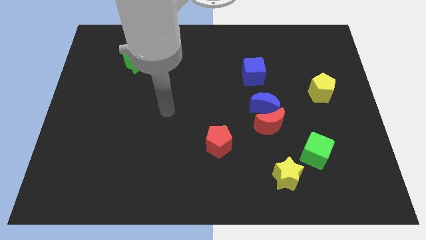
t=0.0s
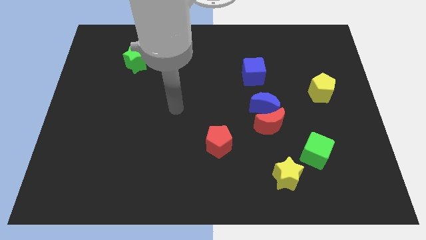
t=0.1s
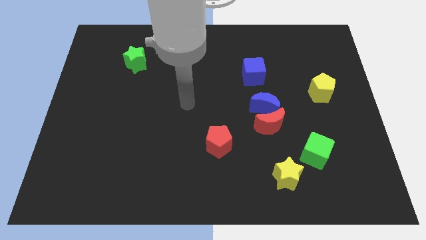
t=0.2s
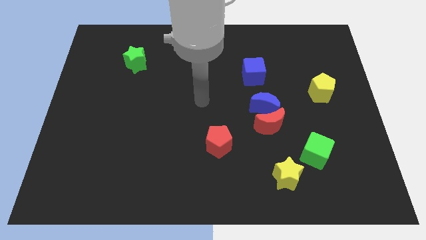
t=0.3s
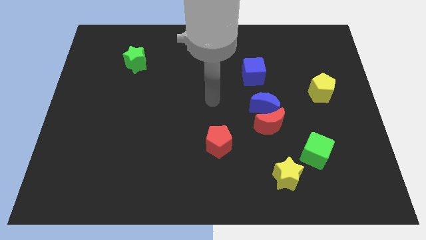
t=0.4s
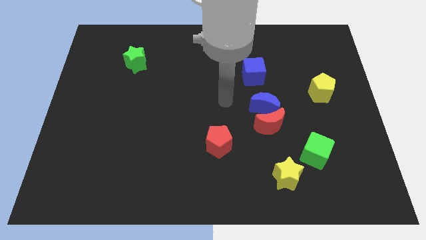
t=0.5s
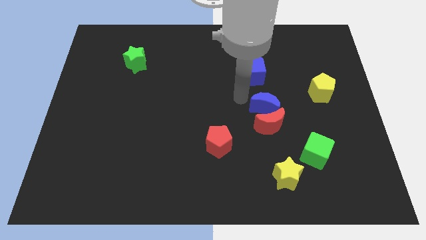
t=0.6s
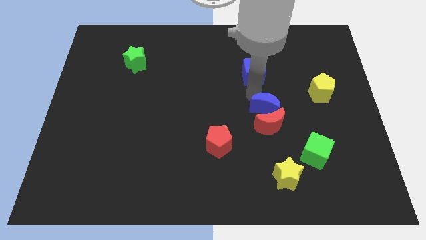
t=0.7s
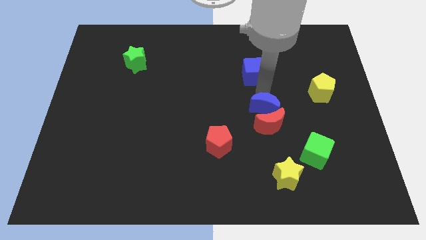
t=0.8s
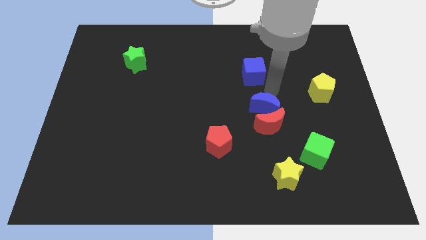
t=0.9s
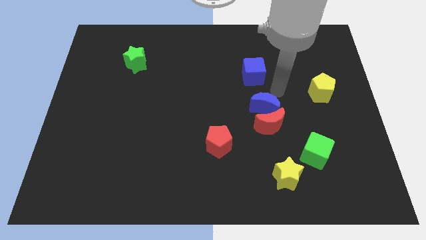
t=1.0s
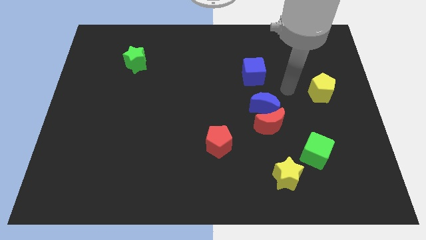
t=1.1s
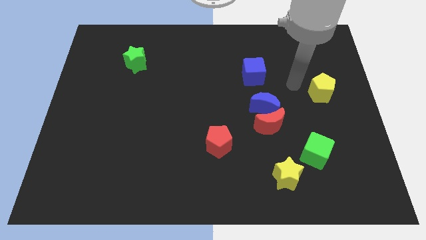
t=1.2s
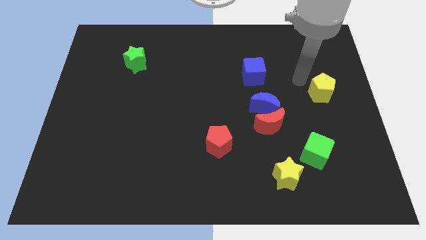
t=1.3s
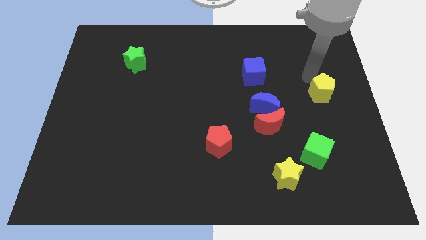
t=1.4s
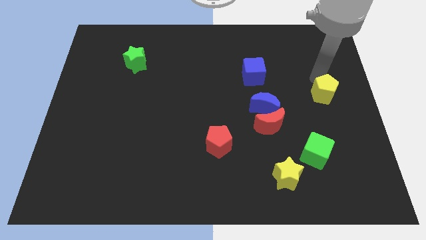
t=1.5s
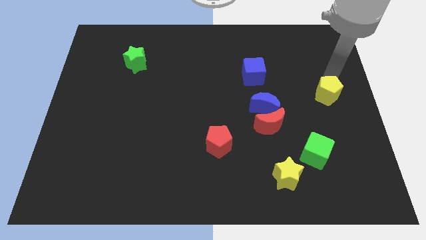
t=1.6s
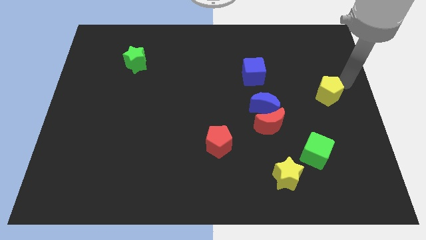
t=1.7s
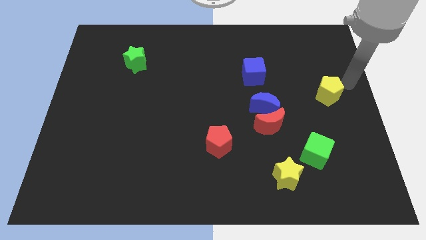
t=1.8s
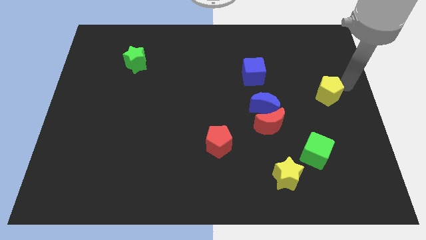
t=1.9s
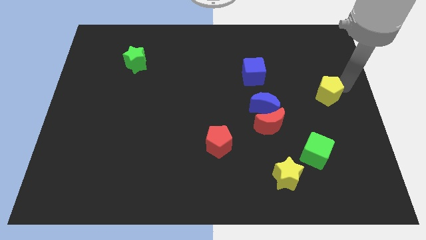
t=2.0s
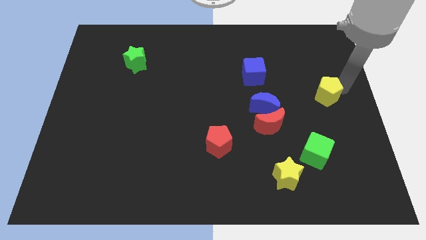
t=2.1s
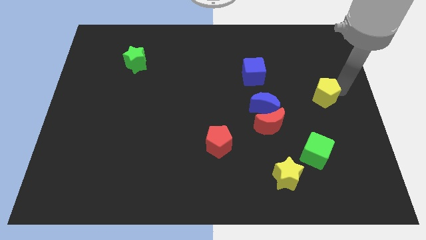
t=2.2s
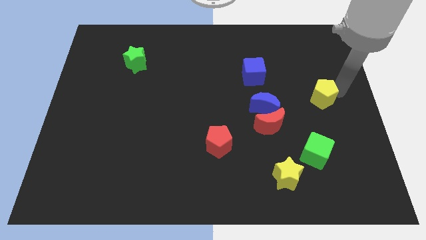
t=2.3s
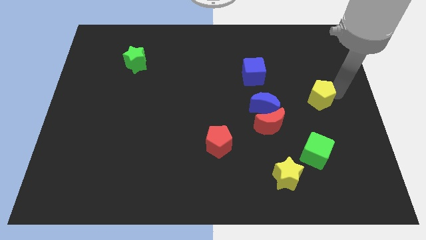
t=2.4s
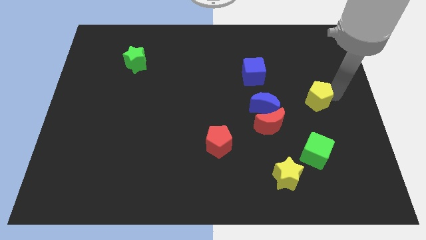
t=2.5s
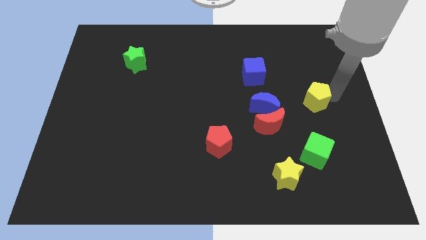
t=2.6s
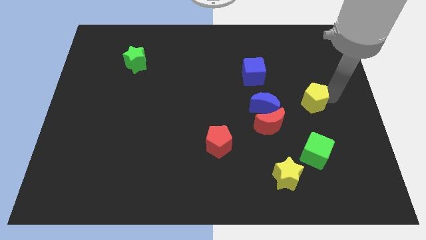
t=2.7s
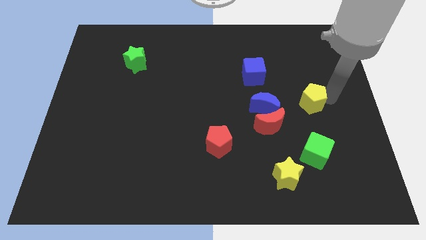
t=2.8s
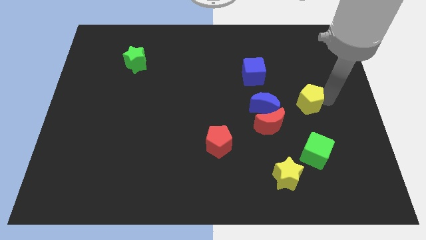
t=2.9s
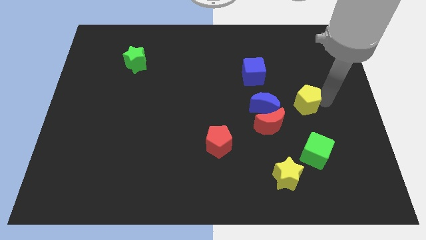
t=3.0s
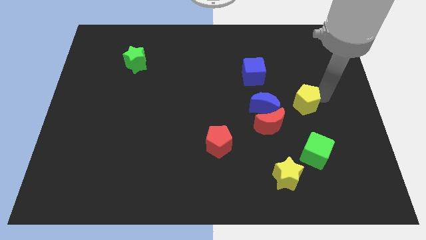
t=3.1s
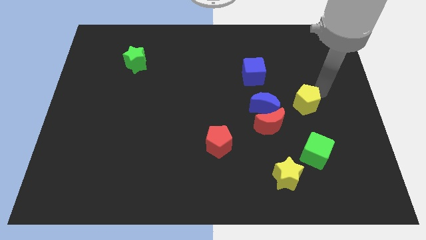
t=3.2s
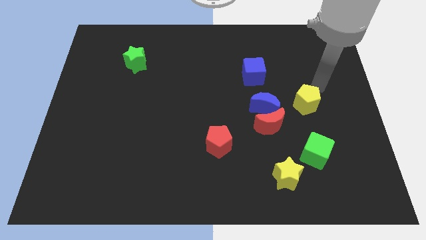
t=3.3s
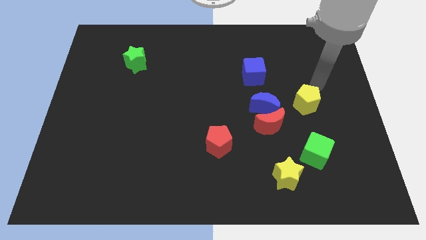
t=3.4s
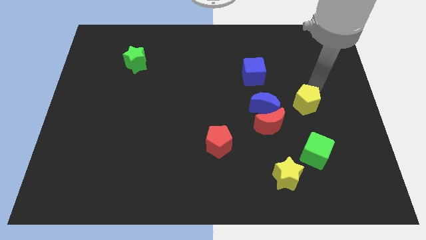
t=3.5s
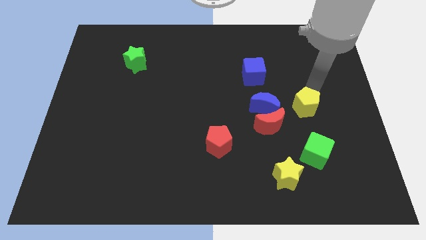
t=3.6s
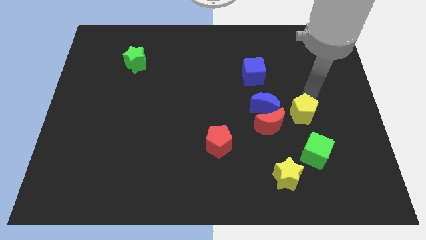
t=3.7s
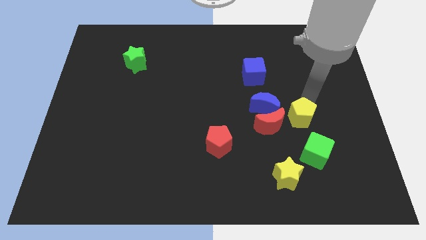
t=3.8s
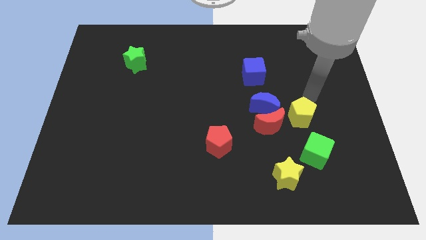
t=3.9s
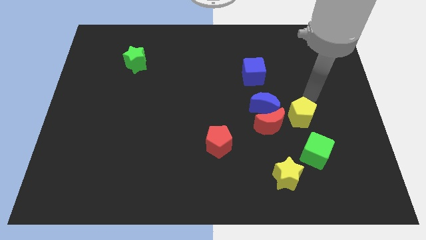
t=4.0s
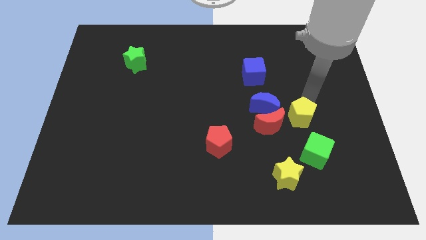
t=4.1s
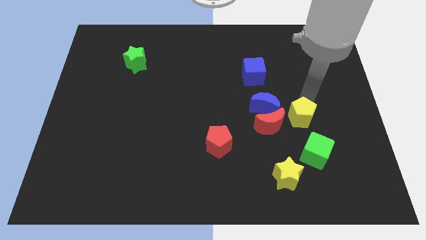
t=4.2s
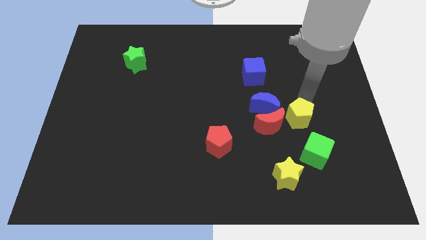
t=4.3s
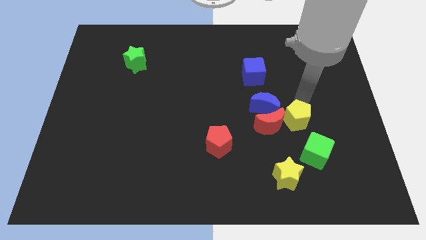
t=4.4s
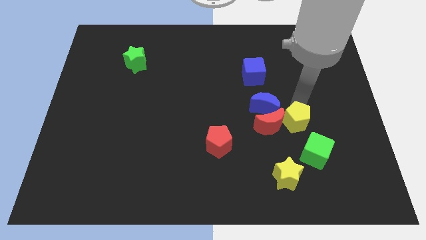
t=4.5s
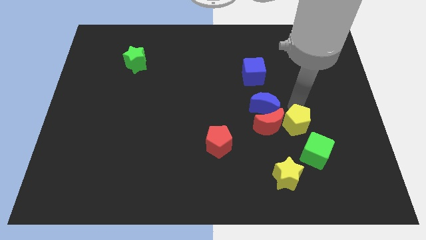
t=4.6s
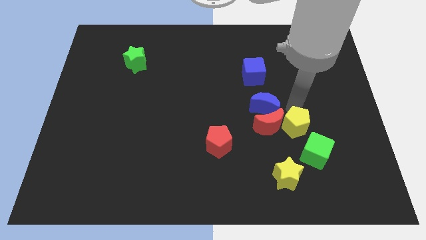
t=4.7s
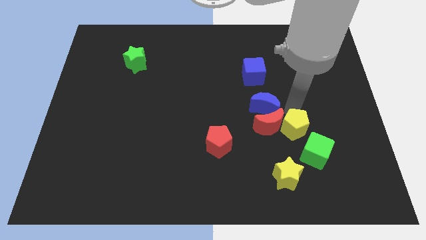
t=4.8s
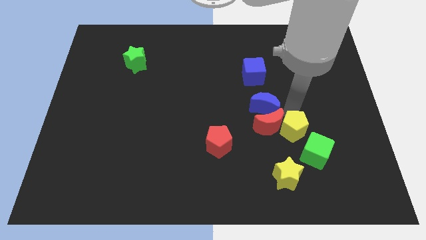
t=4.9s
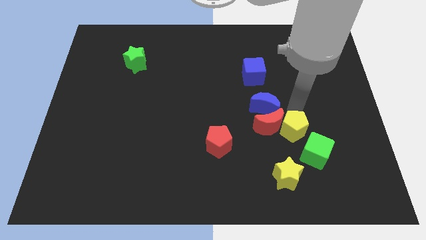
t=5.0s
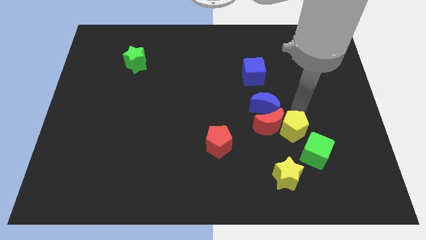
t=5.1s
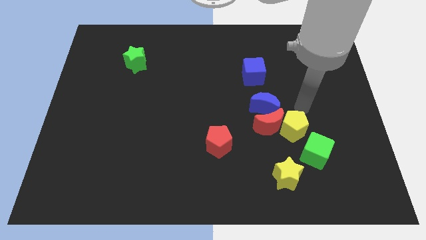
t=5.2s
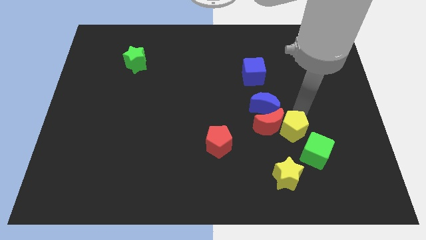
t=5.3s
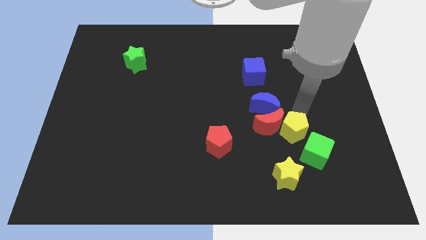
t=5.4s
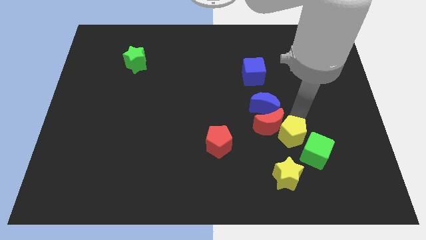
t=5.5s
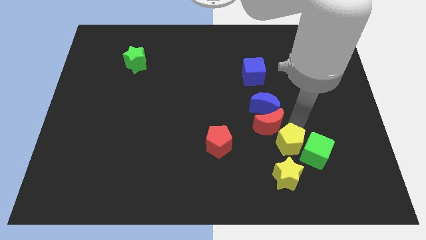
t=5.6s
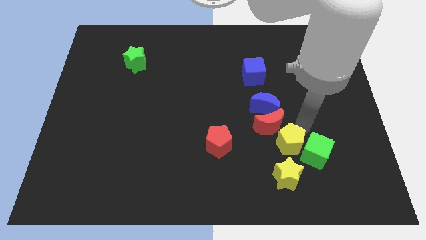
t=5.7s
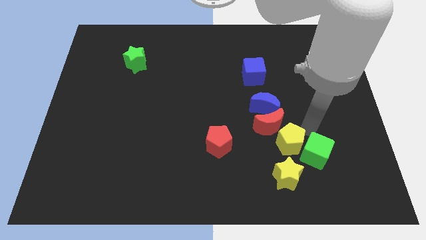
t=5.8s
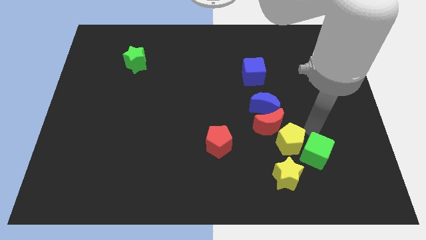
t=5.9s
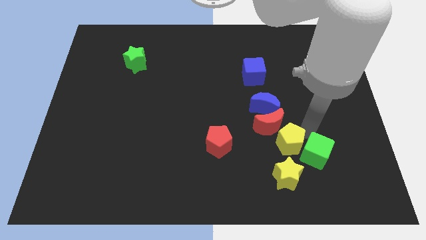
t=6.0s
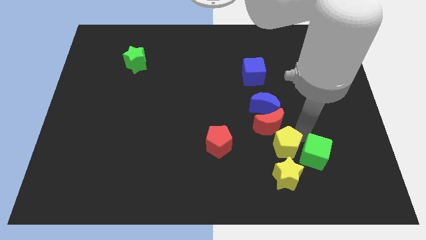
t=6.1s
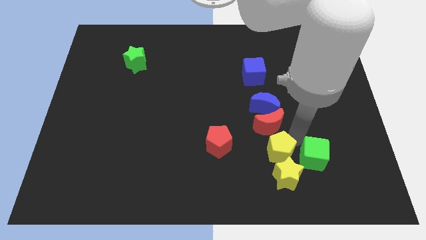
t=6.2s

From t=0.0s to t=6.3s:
push the yellow pentagon downwards and then left

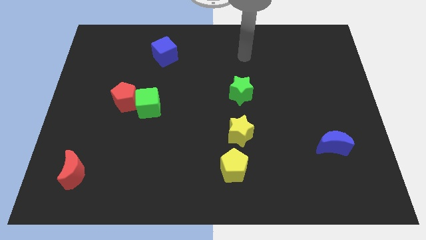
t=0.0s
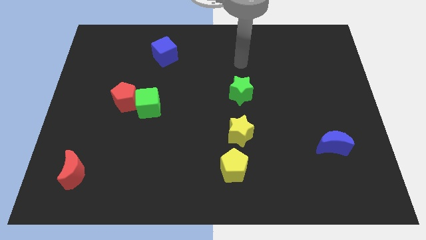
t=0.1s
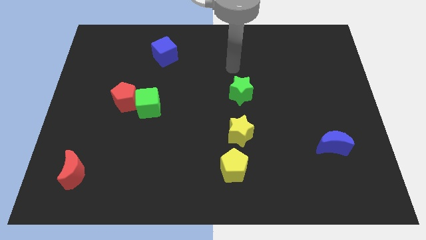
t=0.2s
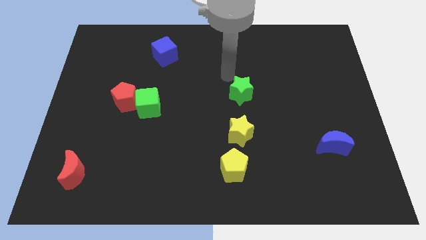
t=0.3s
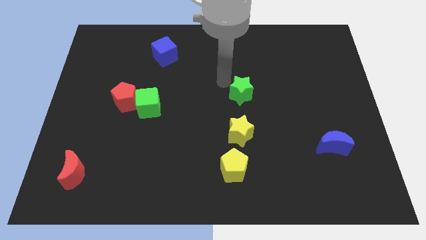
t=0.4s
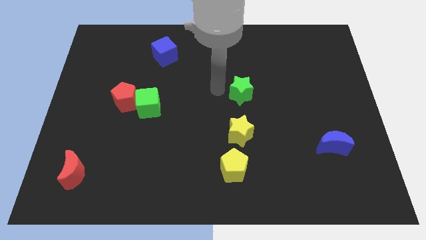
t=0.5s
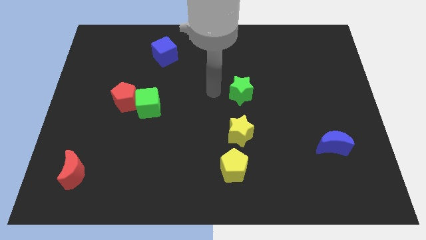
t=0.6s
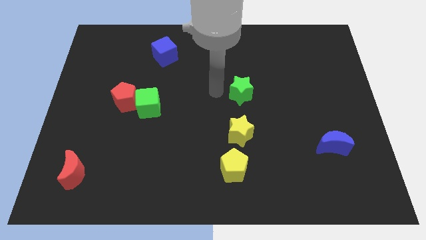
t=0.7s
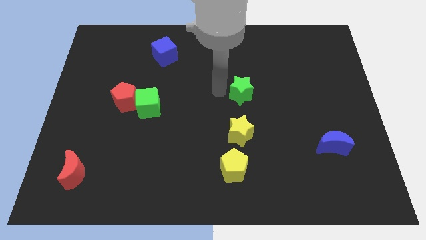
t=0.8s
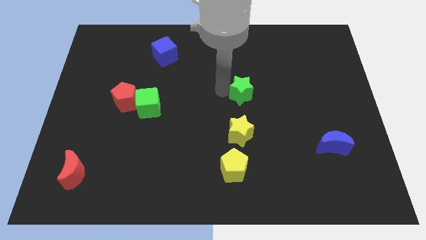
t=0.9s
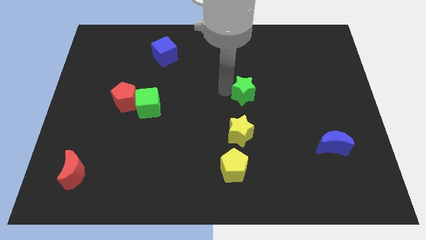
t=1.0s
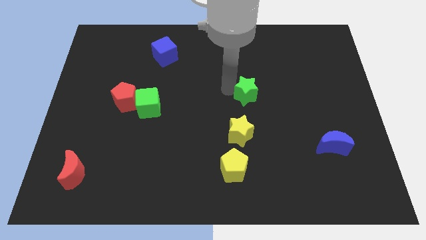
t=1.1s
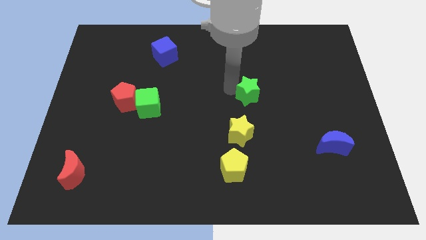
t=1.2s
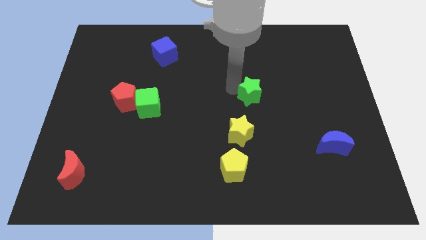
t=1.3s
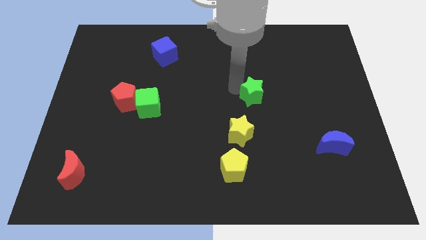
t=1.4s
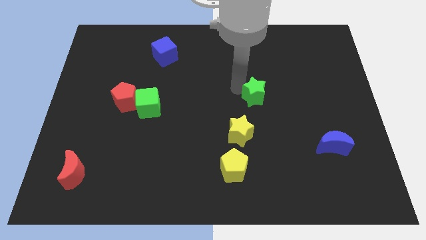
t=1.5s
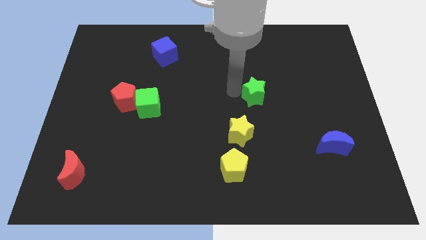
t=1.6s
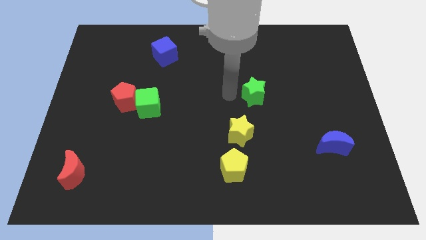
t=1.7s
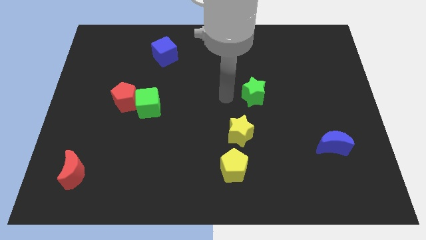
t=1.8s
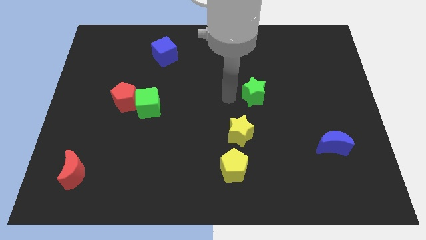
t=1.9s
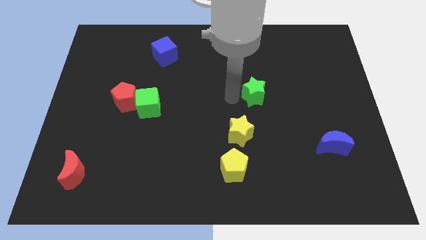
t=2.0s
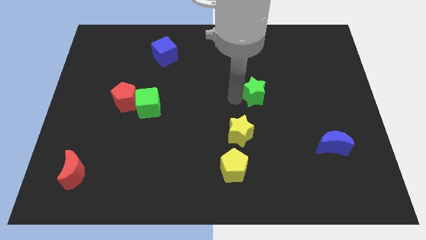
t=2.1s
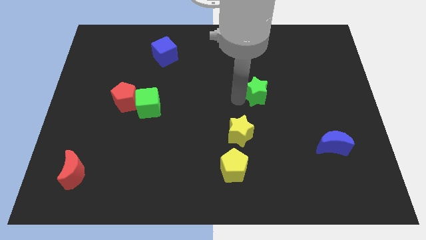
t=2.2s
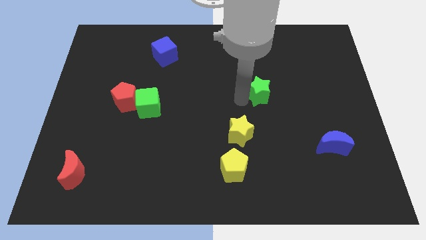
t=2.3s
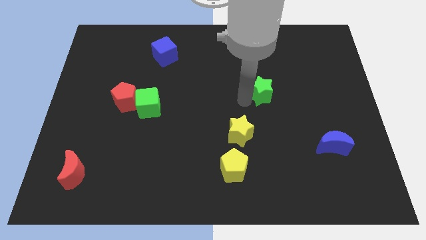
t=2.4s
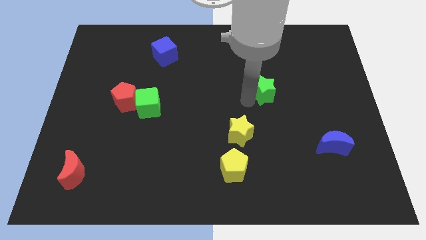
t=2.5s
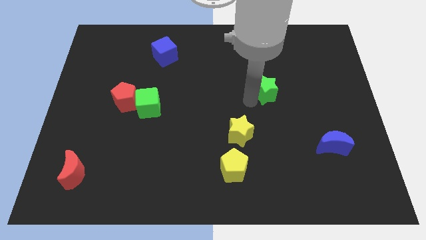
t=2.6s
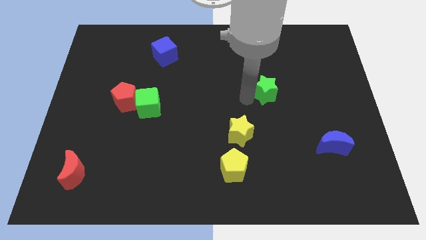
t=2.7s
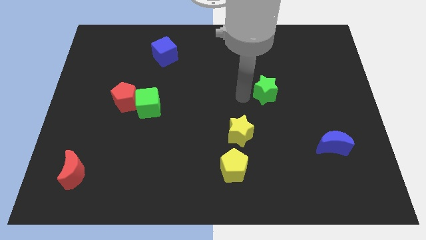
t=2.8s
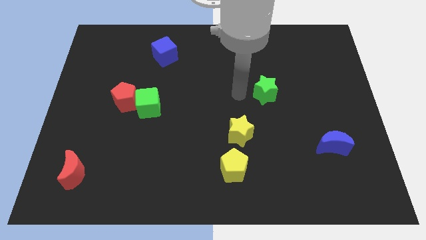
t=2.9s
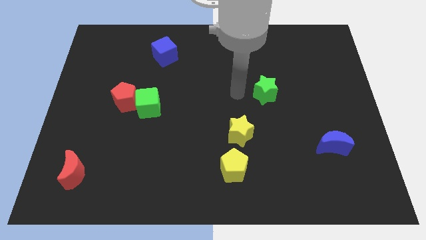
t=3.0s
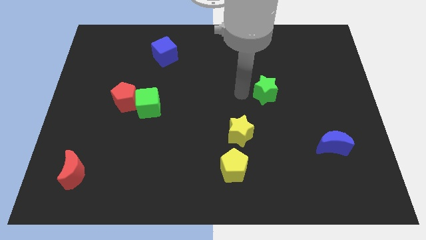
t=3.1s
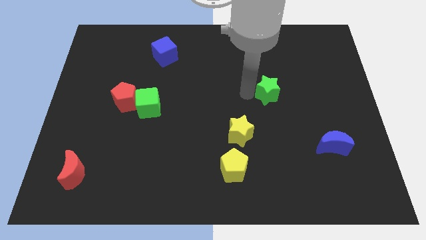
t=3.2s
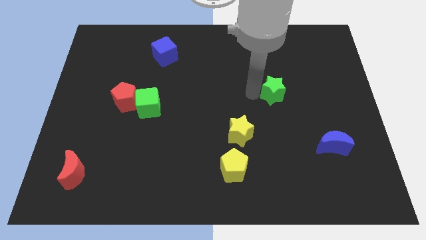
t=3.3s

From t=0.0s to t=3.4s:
slightly move the green star right
